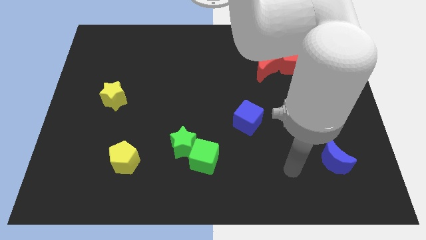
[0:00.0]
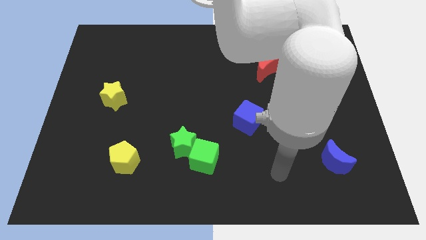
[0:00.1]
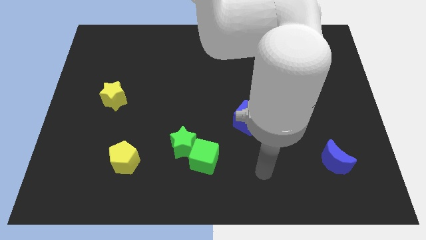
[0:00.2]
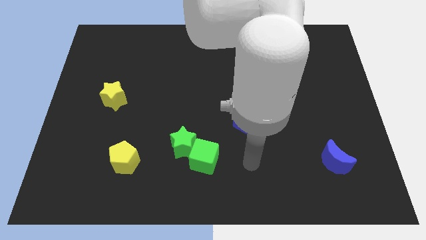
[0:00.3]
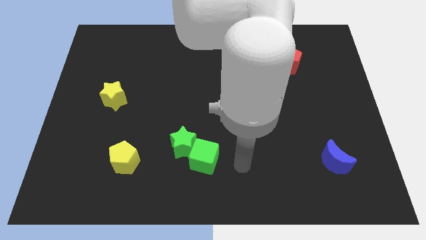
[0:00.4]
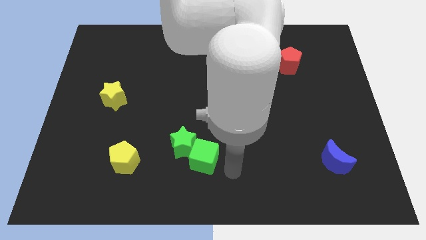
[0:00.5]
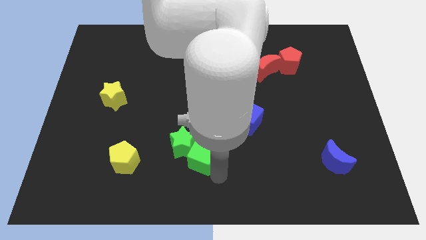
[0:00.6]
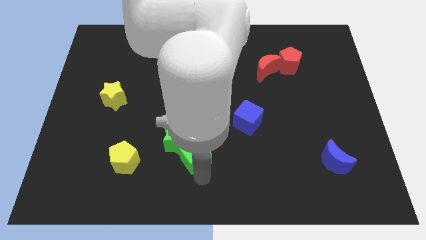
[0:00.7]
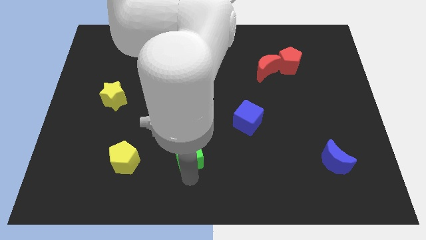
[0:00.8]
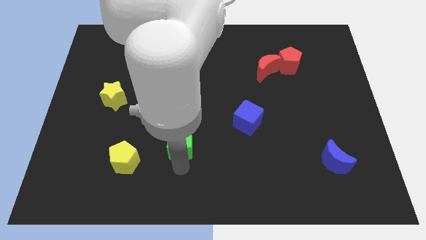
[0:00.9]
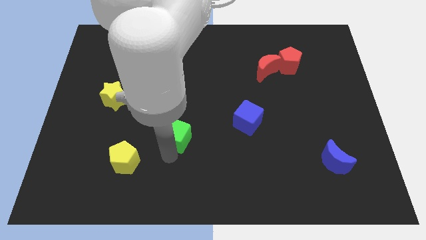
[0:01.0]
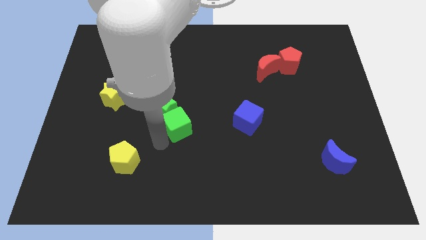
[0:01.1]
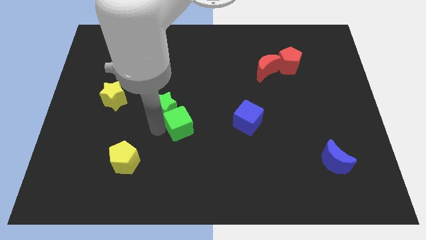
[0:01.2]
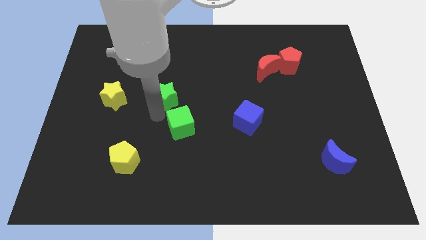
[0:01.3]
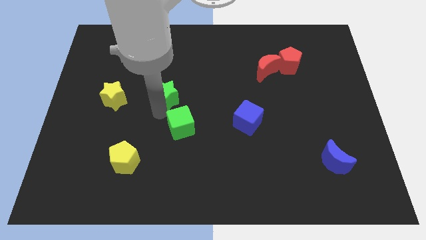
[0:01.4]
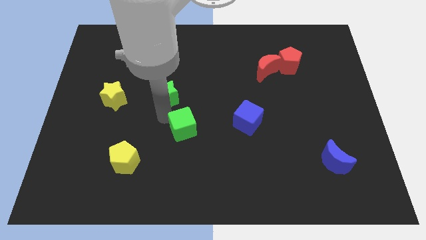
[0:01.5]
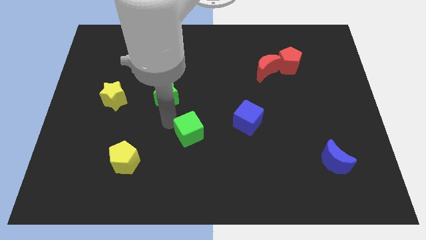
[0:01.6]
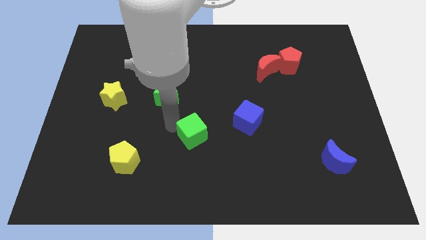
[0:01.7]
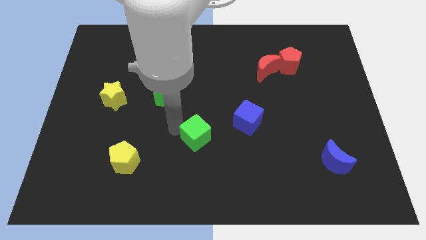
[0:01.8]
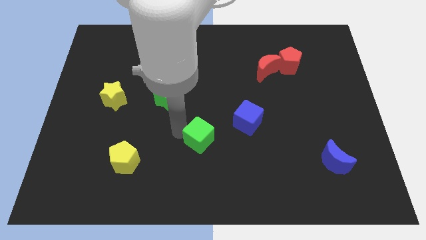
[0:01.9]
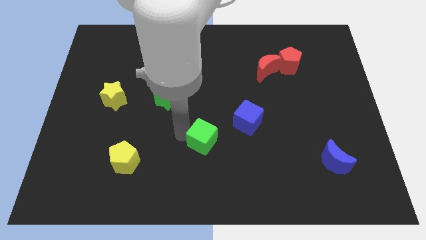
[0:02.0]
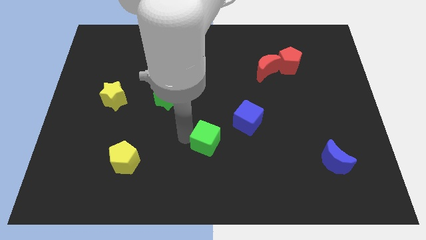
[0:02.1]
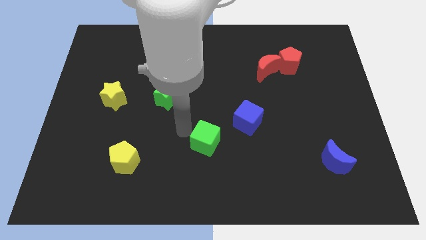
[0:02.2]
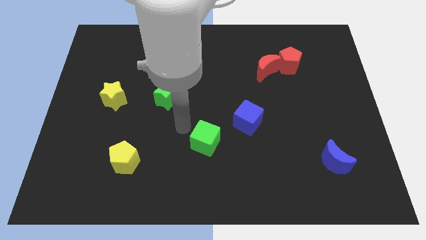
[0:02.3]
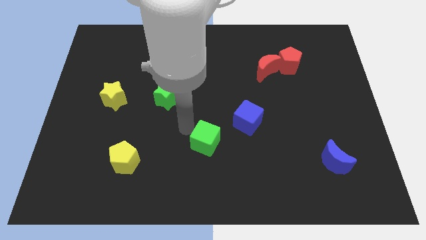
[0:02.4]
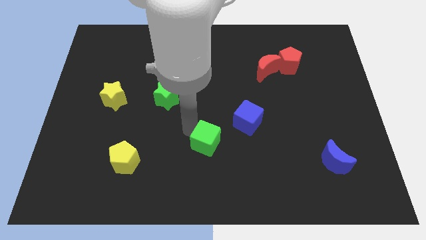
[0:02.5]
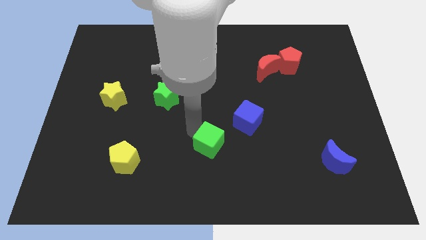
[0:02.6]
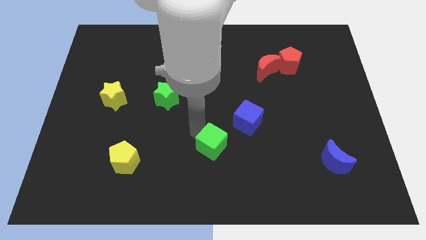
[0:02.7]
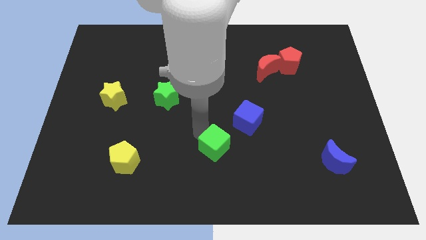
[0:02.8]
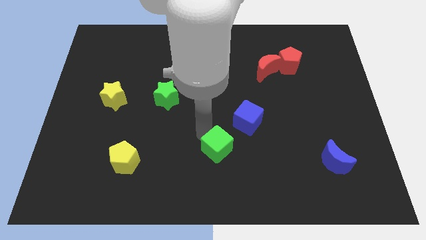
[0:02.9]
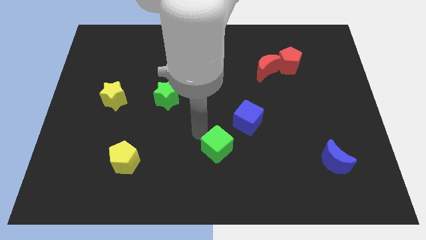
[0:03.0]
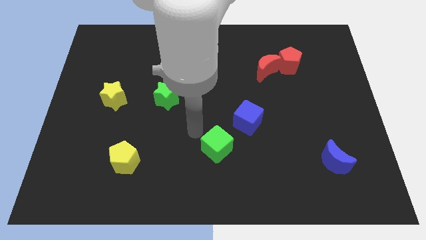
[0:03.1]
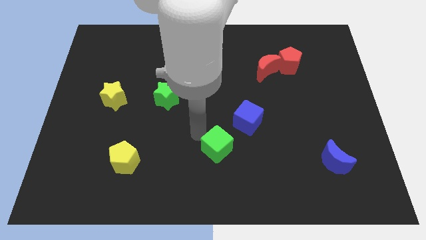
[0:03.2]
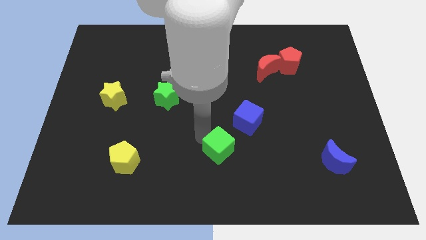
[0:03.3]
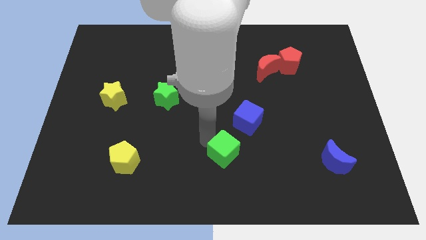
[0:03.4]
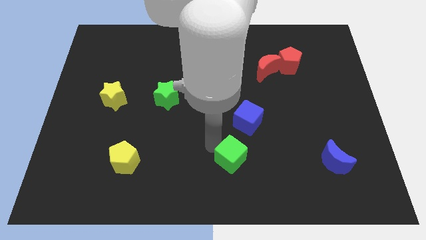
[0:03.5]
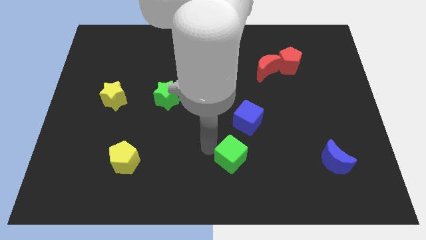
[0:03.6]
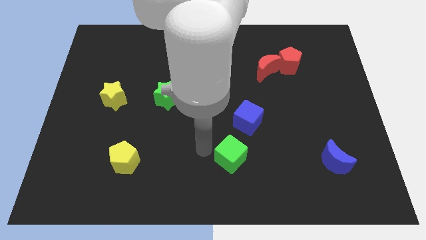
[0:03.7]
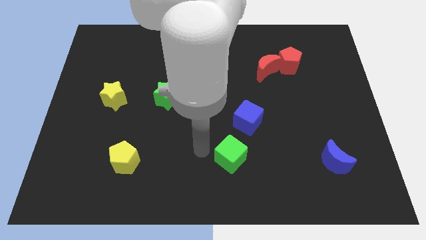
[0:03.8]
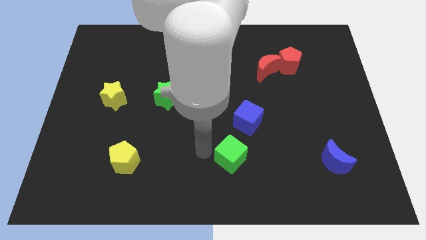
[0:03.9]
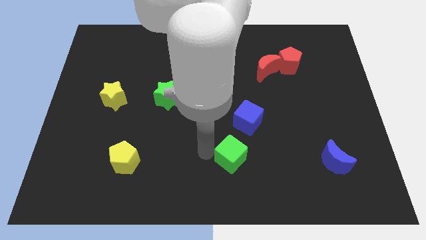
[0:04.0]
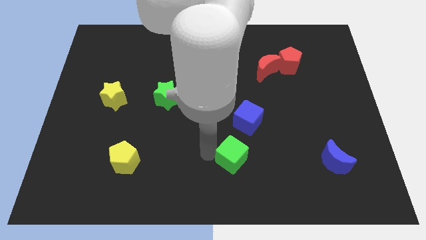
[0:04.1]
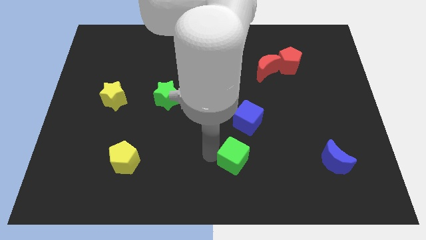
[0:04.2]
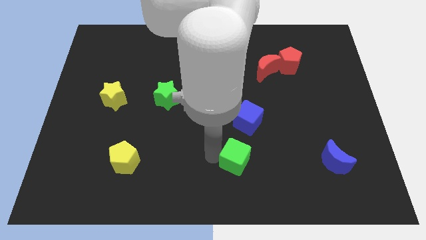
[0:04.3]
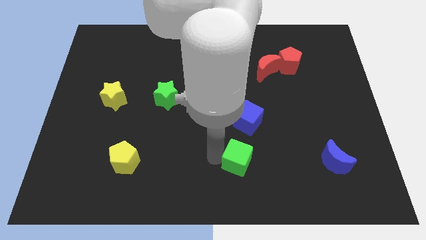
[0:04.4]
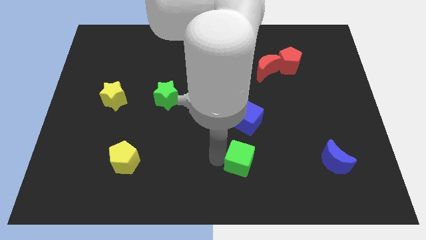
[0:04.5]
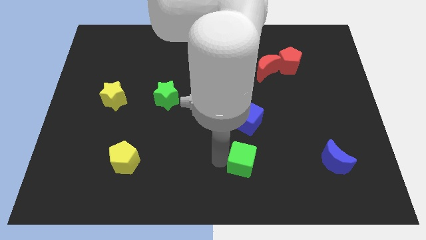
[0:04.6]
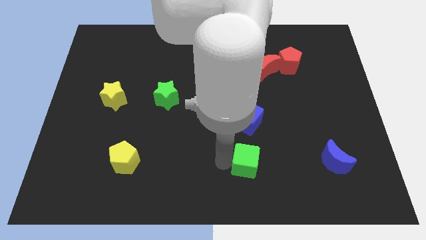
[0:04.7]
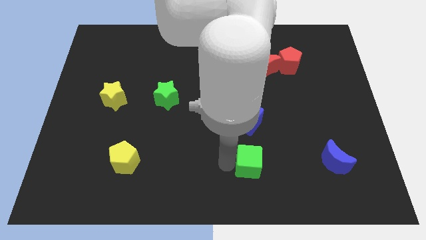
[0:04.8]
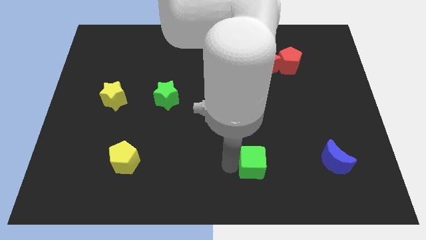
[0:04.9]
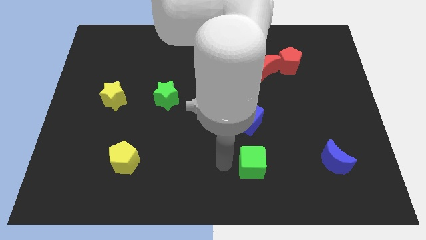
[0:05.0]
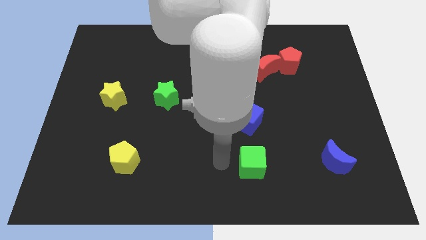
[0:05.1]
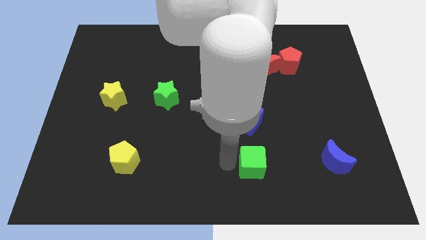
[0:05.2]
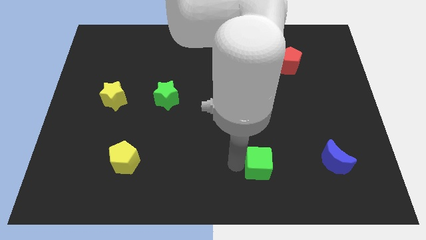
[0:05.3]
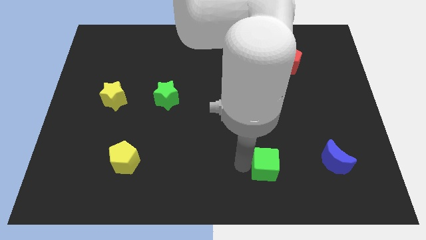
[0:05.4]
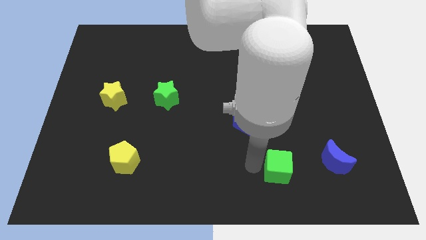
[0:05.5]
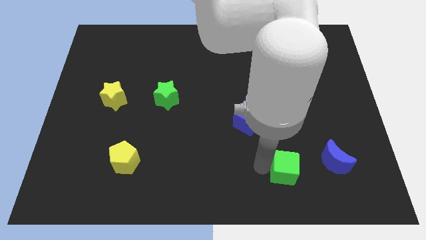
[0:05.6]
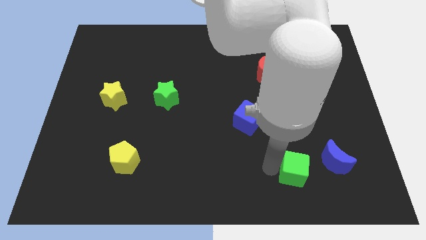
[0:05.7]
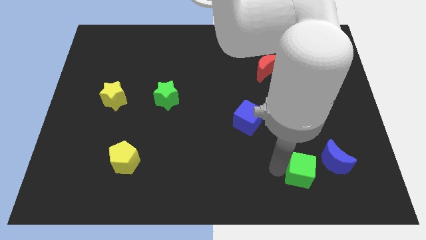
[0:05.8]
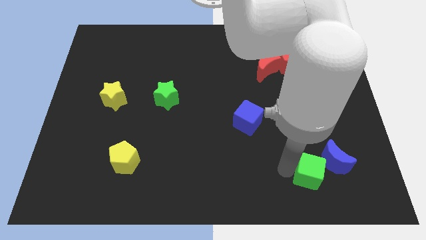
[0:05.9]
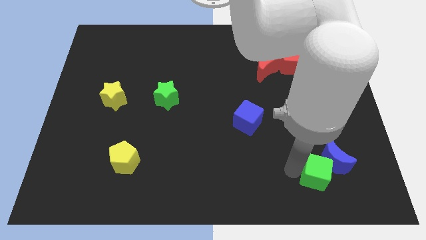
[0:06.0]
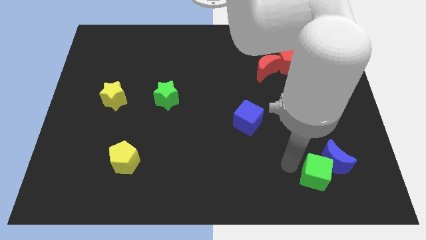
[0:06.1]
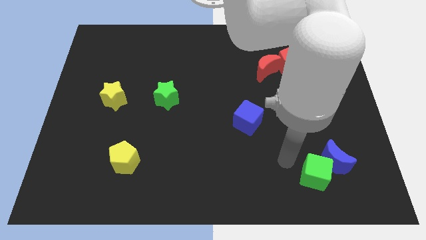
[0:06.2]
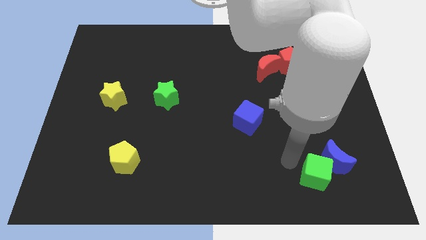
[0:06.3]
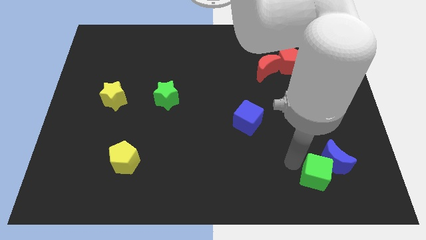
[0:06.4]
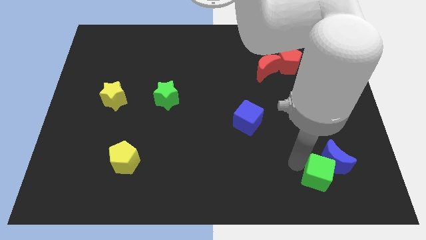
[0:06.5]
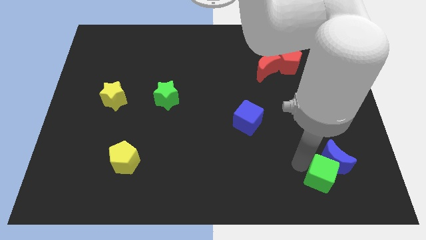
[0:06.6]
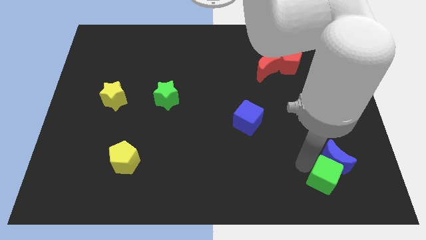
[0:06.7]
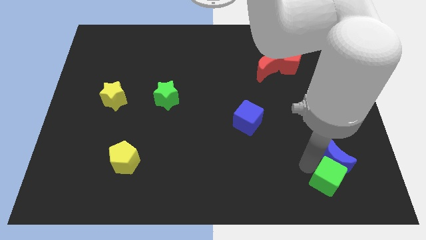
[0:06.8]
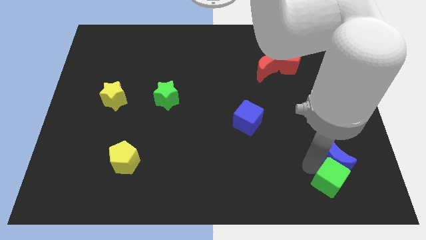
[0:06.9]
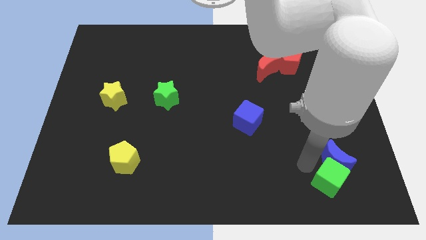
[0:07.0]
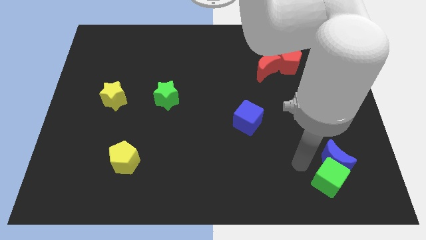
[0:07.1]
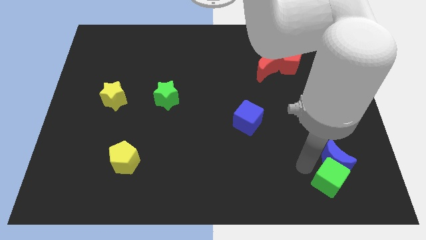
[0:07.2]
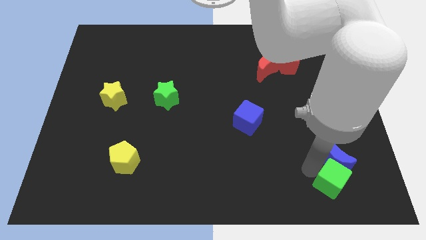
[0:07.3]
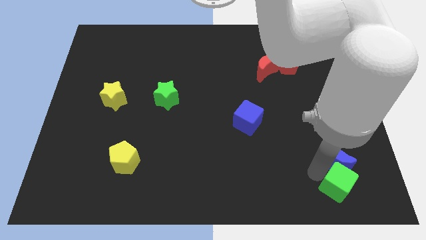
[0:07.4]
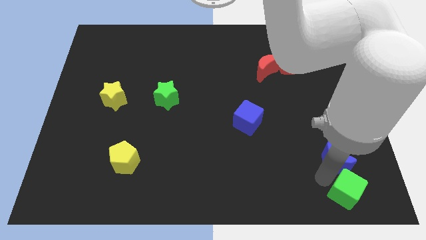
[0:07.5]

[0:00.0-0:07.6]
put the green cube to the bottom right
